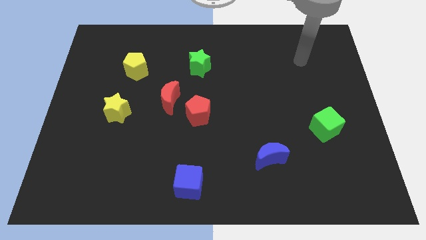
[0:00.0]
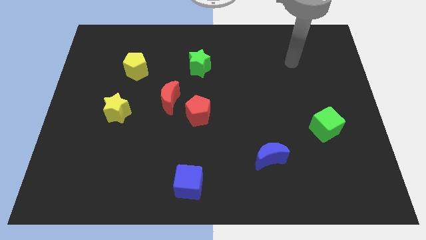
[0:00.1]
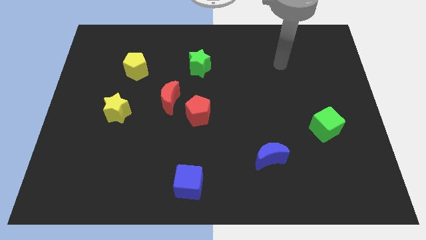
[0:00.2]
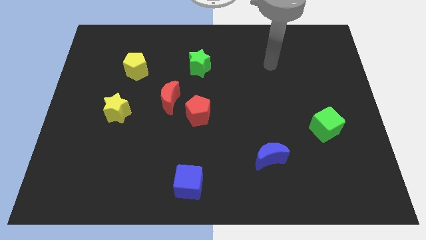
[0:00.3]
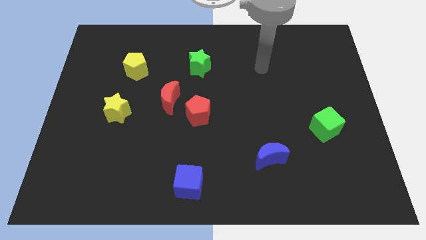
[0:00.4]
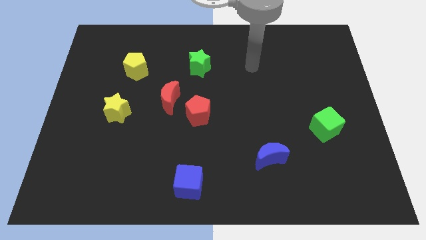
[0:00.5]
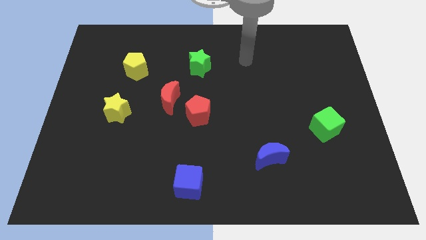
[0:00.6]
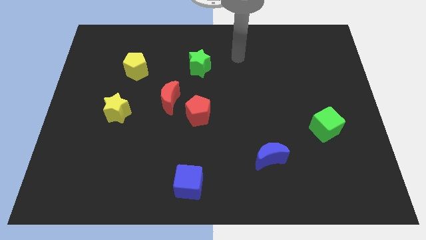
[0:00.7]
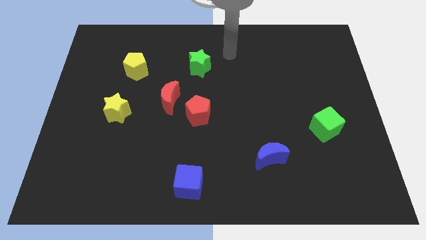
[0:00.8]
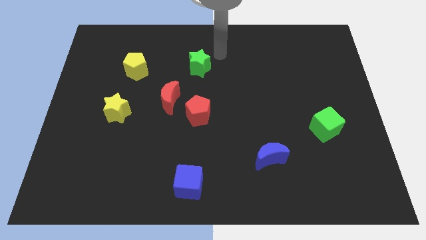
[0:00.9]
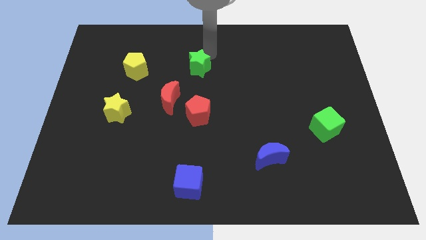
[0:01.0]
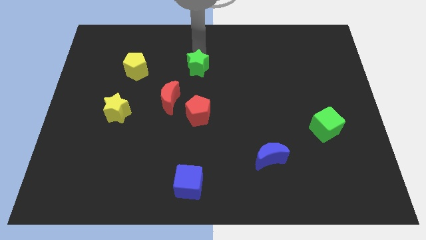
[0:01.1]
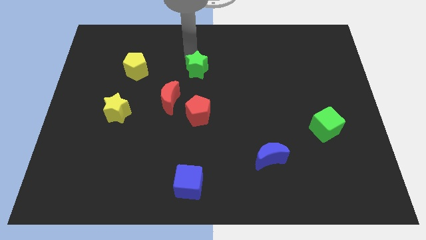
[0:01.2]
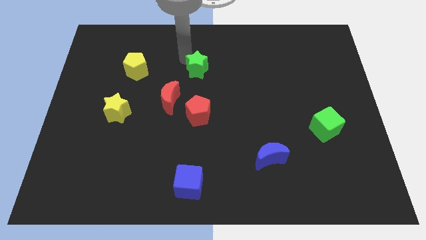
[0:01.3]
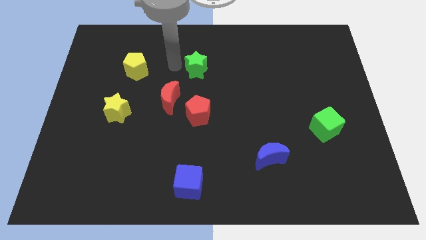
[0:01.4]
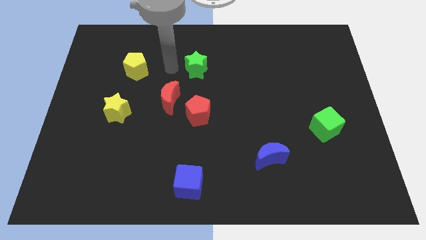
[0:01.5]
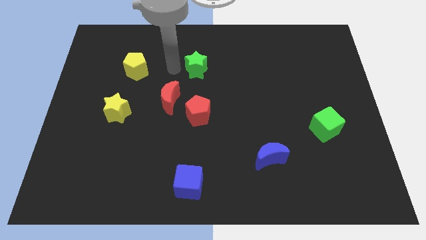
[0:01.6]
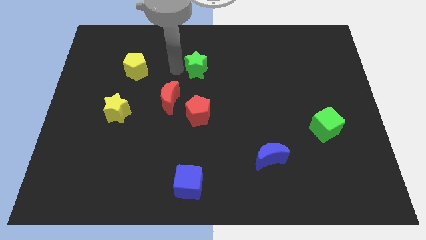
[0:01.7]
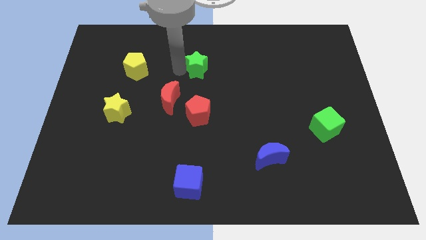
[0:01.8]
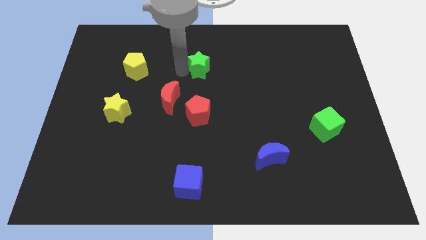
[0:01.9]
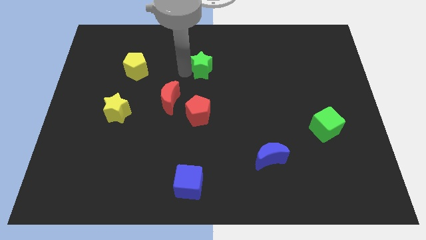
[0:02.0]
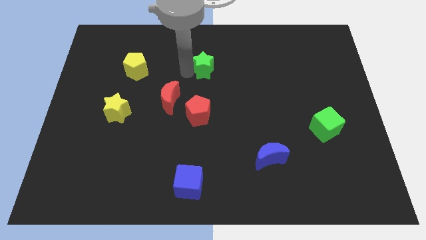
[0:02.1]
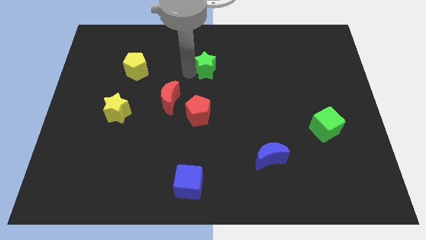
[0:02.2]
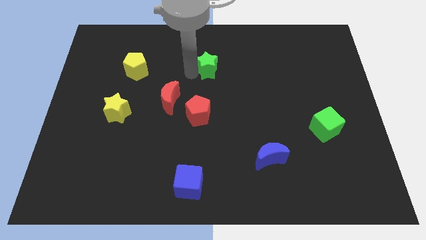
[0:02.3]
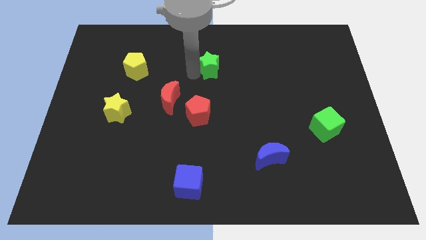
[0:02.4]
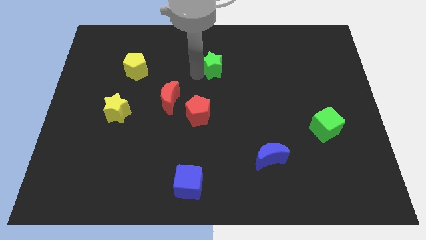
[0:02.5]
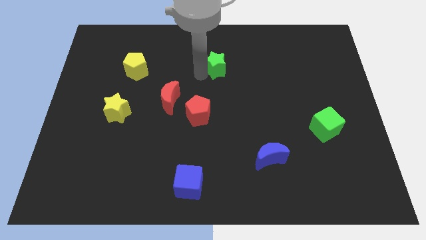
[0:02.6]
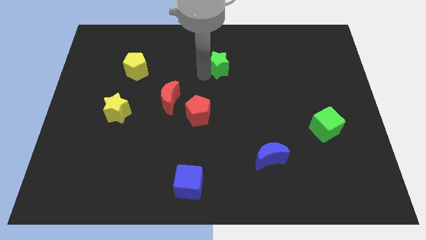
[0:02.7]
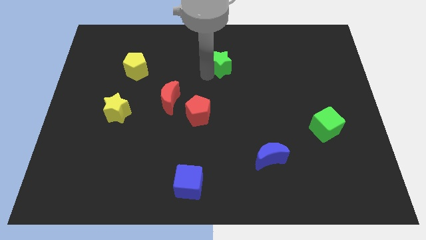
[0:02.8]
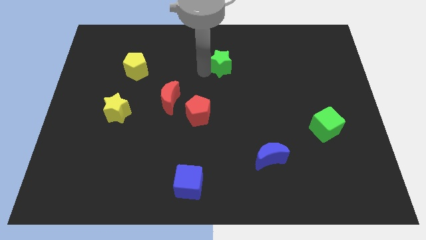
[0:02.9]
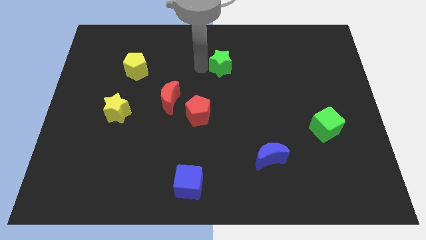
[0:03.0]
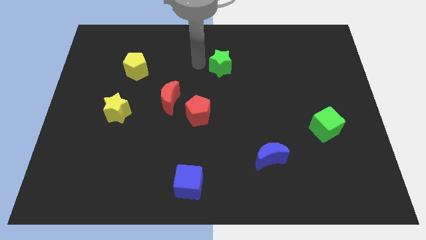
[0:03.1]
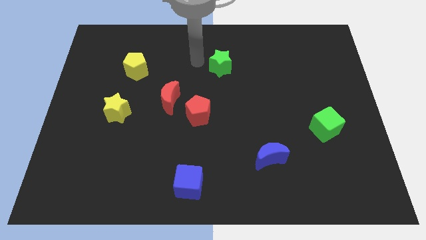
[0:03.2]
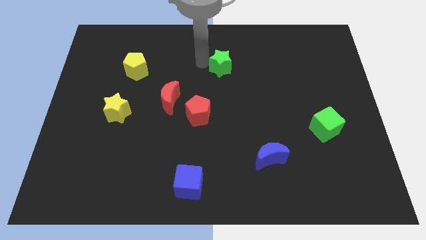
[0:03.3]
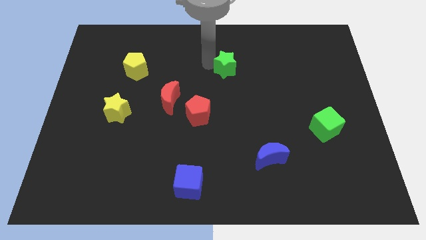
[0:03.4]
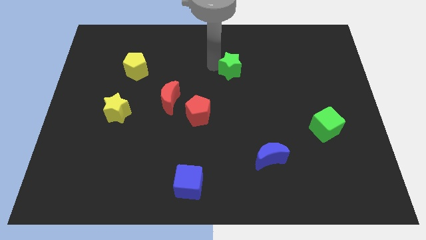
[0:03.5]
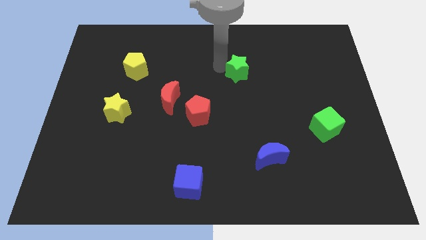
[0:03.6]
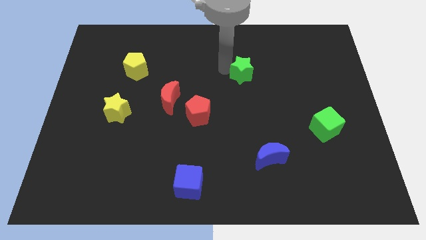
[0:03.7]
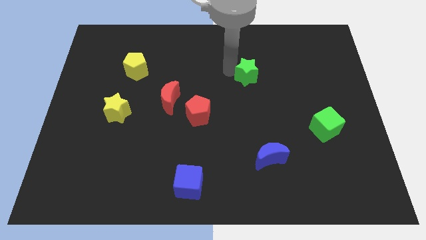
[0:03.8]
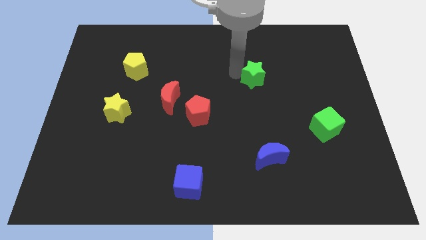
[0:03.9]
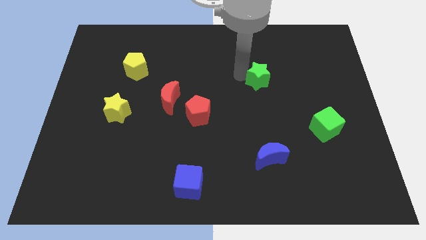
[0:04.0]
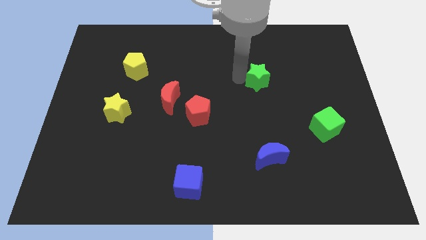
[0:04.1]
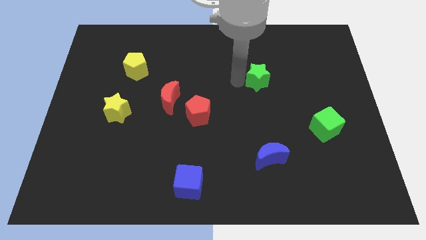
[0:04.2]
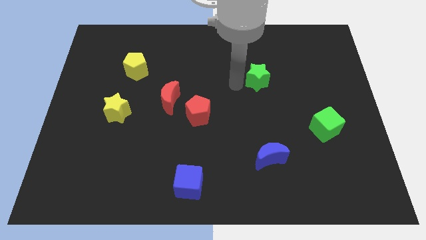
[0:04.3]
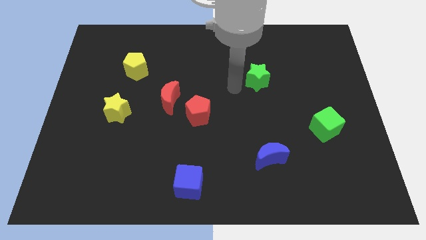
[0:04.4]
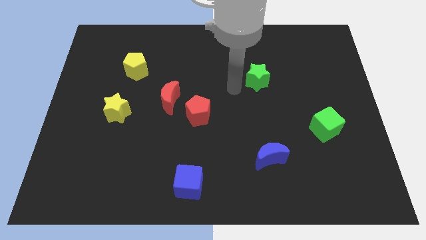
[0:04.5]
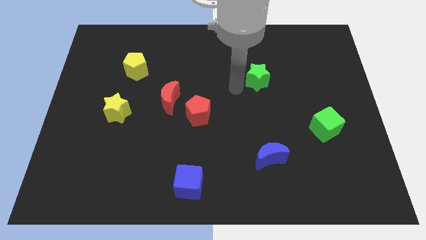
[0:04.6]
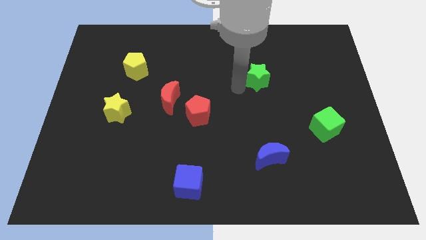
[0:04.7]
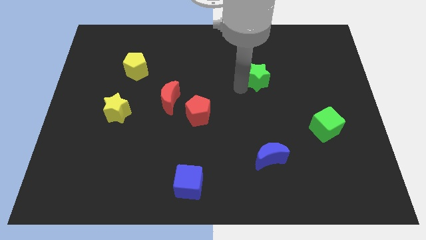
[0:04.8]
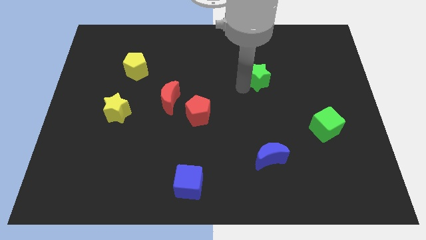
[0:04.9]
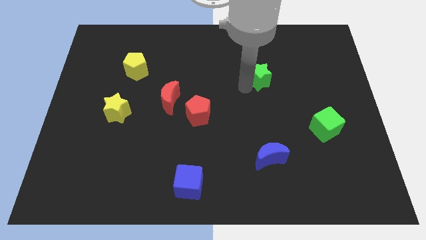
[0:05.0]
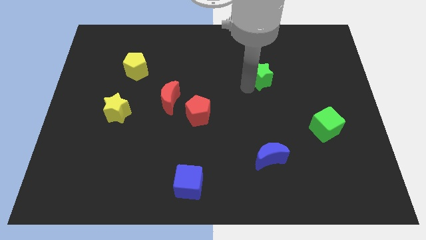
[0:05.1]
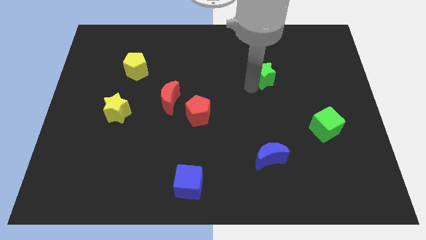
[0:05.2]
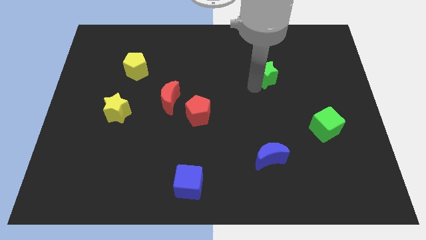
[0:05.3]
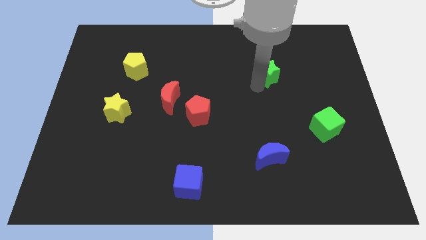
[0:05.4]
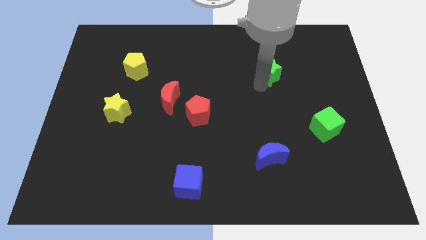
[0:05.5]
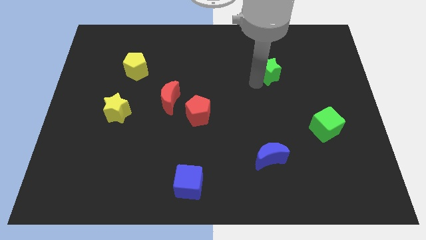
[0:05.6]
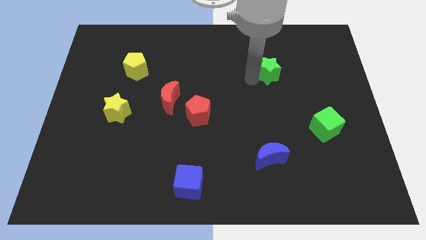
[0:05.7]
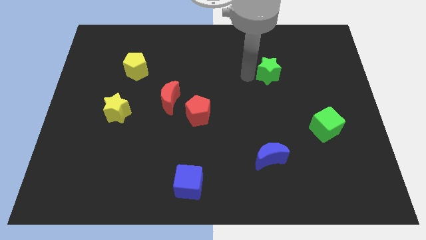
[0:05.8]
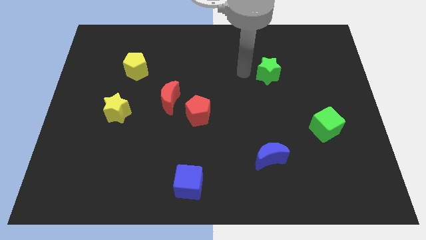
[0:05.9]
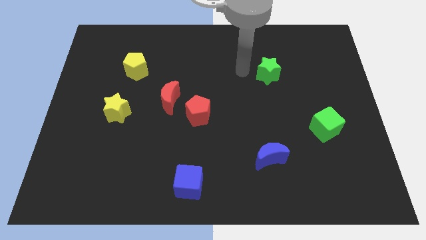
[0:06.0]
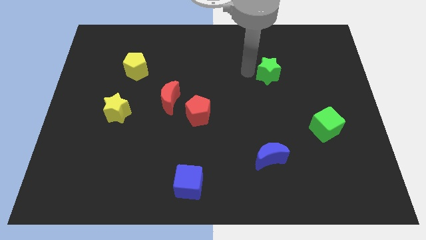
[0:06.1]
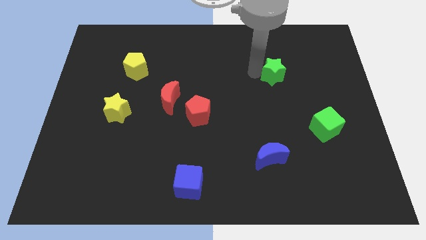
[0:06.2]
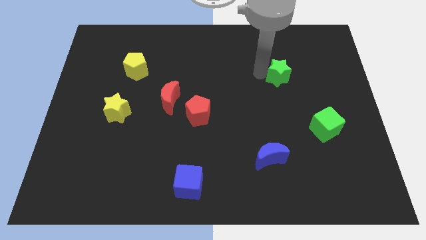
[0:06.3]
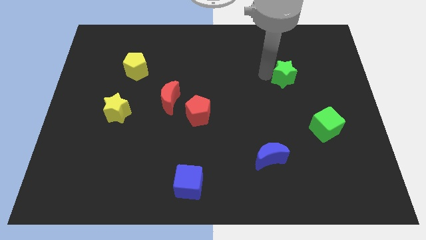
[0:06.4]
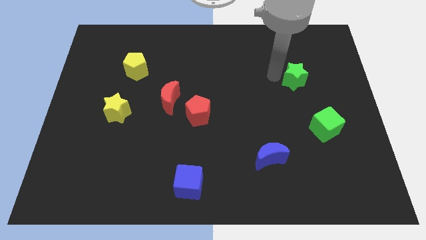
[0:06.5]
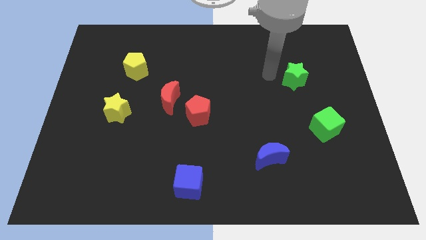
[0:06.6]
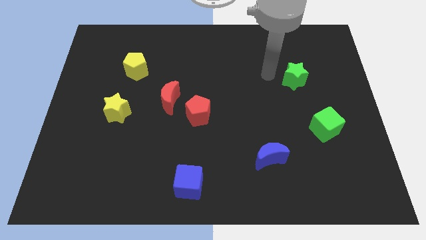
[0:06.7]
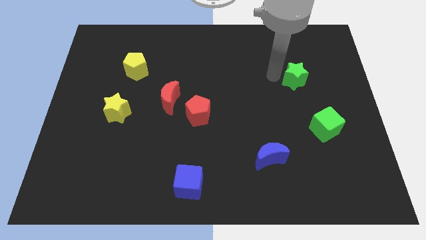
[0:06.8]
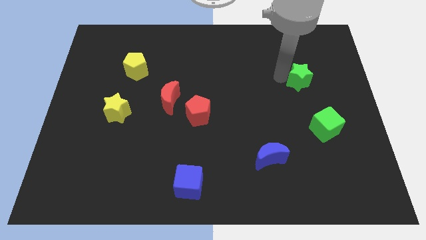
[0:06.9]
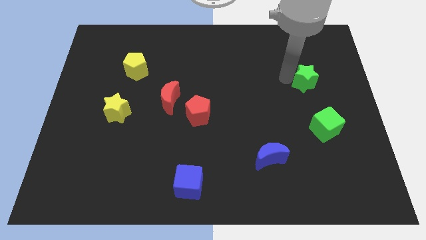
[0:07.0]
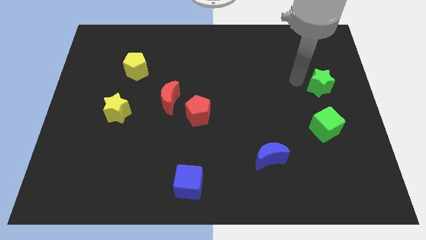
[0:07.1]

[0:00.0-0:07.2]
push the green star to the center right

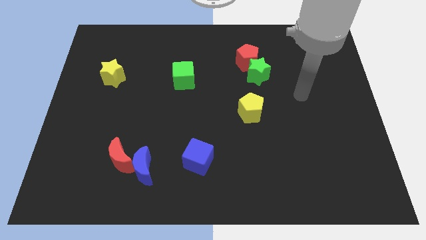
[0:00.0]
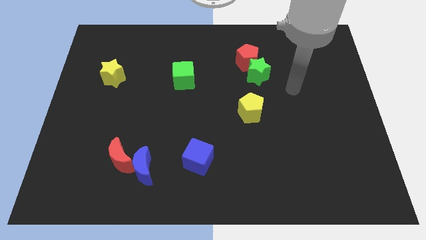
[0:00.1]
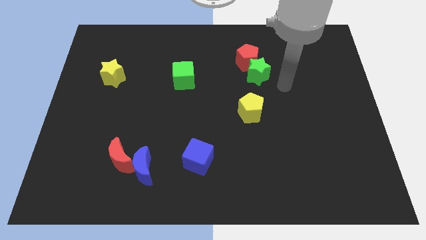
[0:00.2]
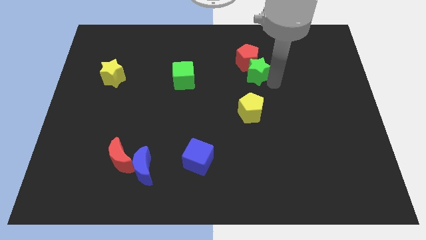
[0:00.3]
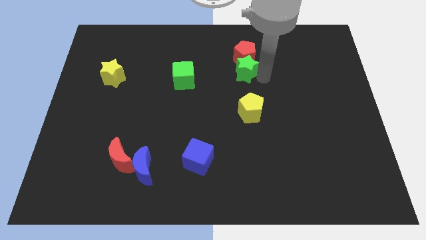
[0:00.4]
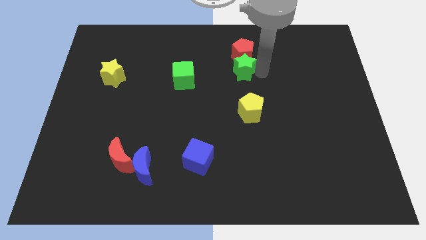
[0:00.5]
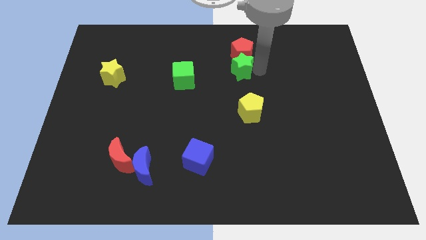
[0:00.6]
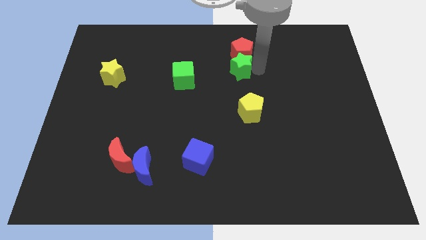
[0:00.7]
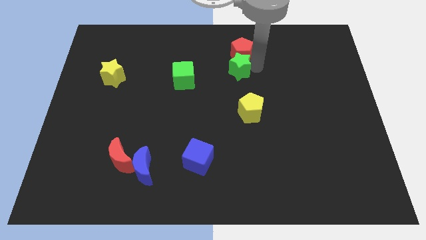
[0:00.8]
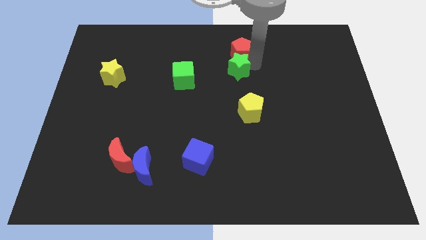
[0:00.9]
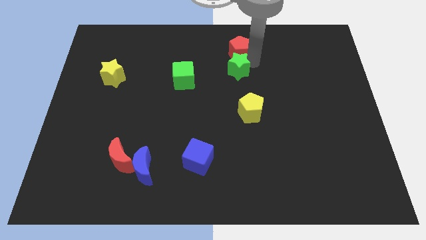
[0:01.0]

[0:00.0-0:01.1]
push the red pentagon to the towards your base
